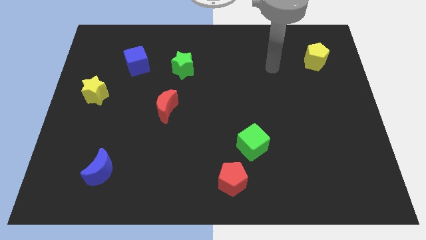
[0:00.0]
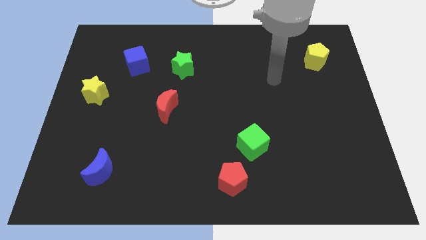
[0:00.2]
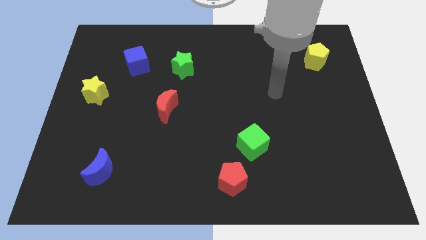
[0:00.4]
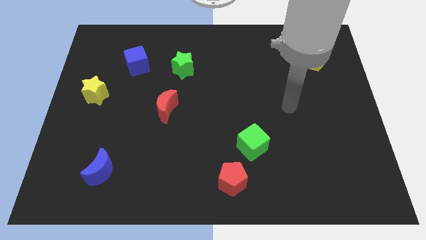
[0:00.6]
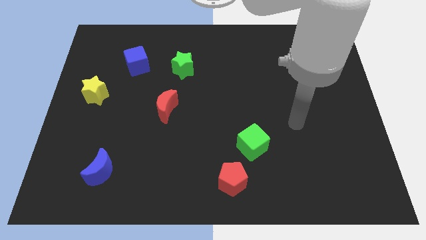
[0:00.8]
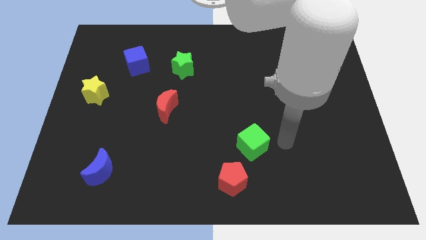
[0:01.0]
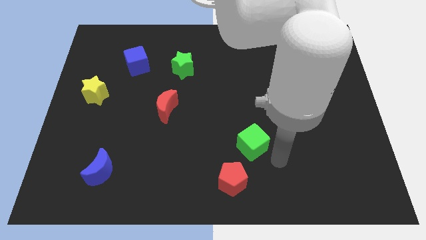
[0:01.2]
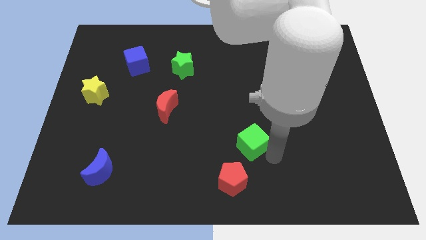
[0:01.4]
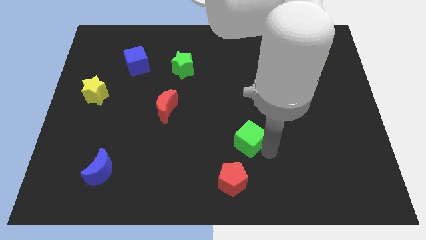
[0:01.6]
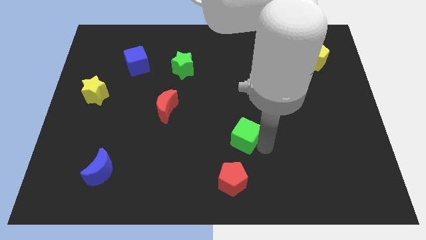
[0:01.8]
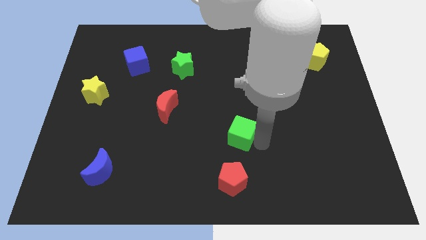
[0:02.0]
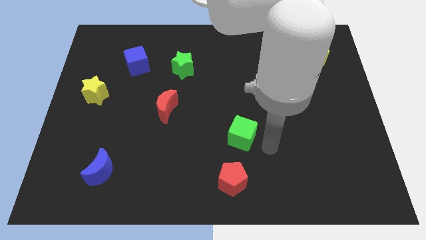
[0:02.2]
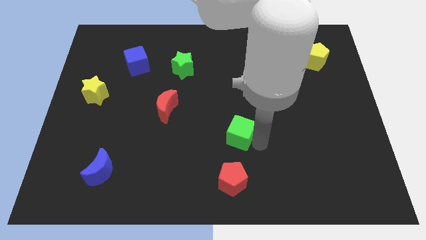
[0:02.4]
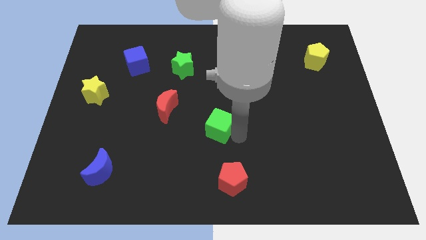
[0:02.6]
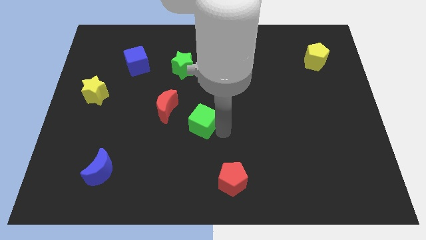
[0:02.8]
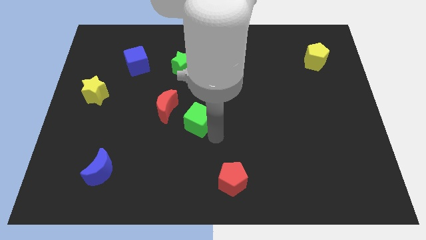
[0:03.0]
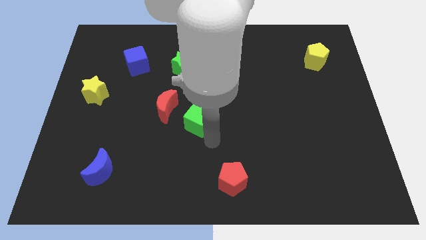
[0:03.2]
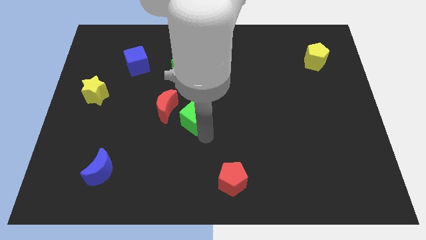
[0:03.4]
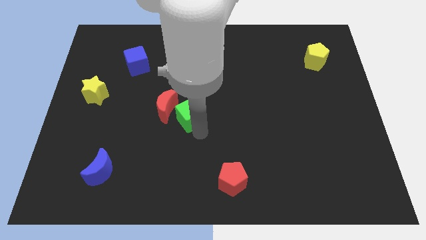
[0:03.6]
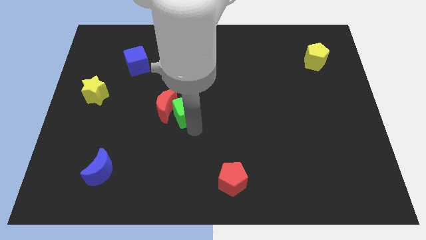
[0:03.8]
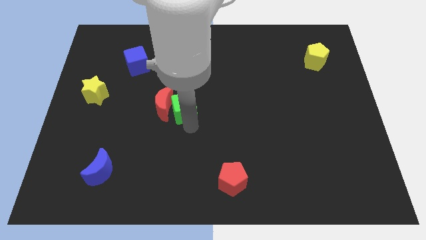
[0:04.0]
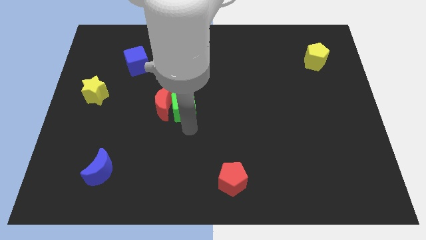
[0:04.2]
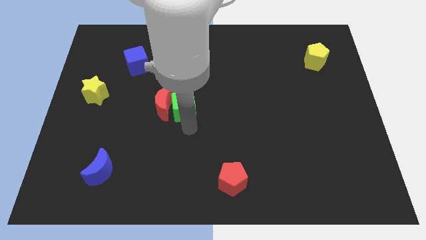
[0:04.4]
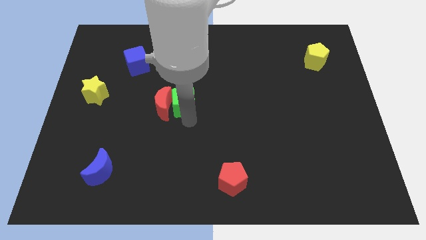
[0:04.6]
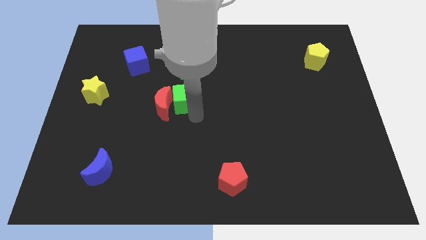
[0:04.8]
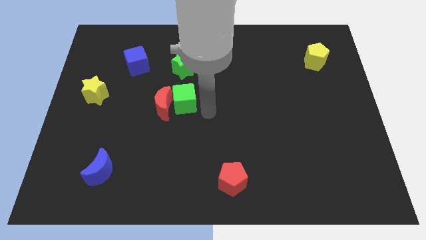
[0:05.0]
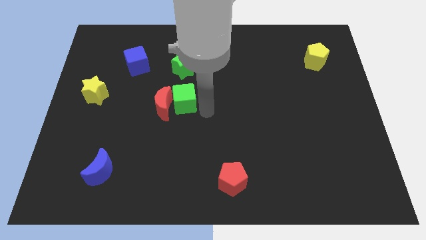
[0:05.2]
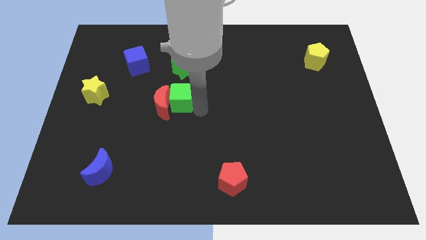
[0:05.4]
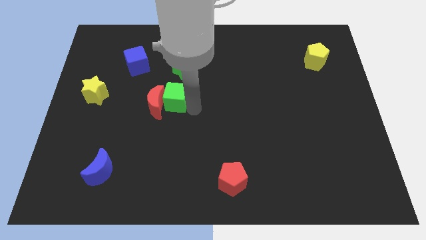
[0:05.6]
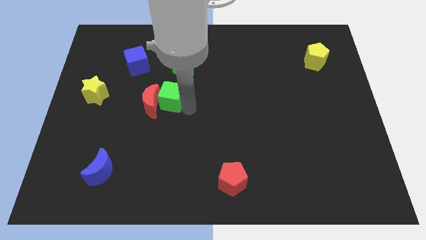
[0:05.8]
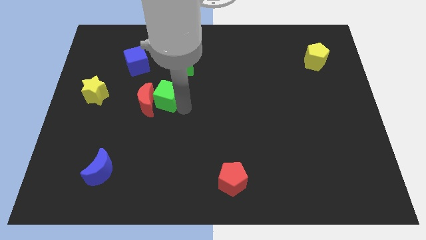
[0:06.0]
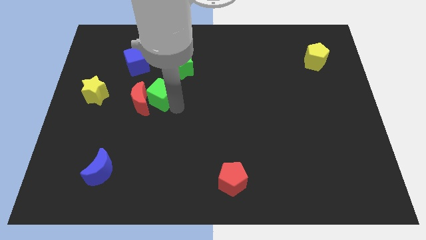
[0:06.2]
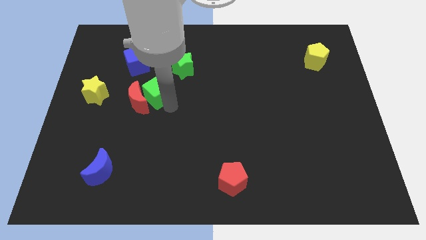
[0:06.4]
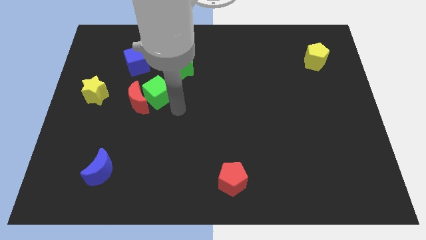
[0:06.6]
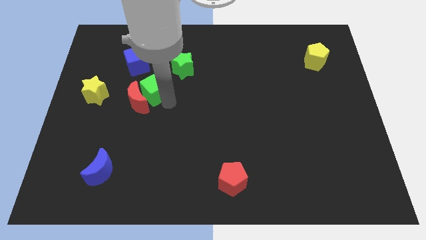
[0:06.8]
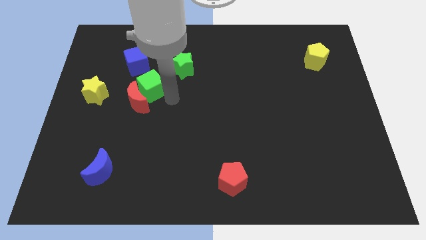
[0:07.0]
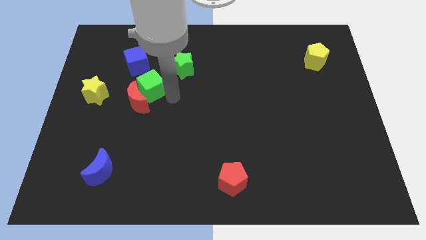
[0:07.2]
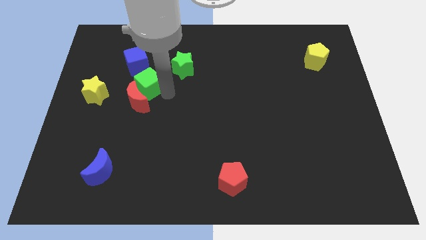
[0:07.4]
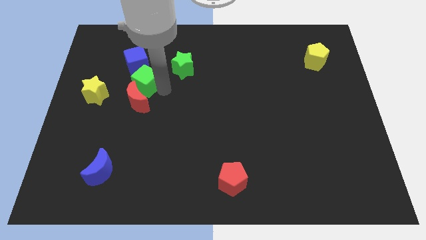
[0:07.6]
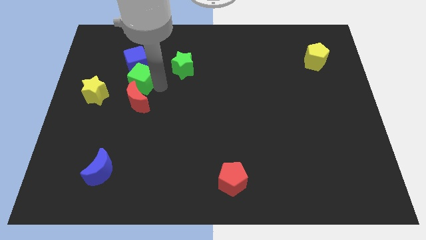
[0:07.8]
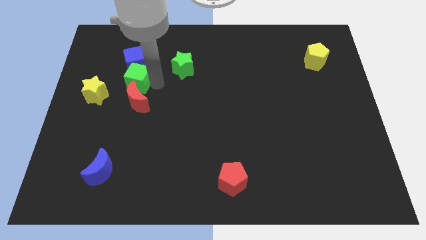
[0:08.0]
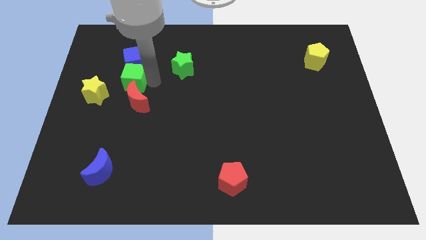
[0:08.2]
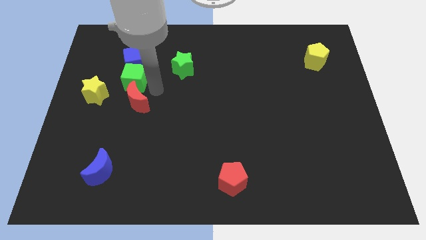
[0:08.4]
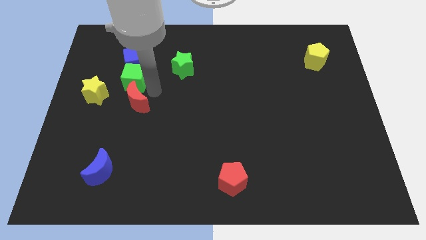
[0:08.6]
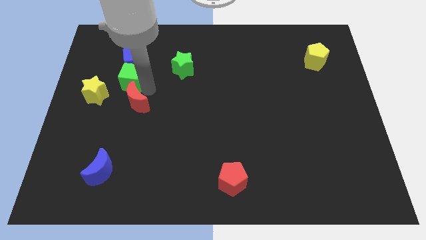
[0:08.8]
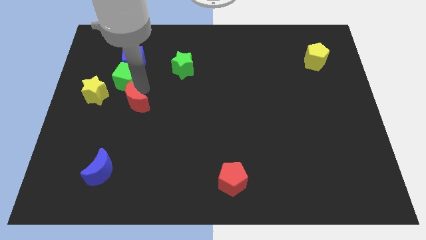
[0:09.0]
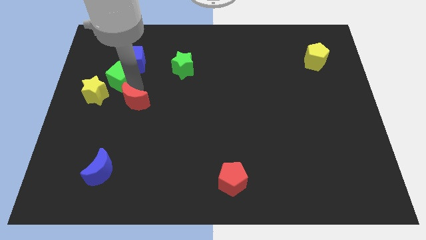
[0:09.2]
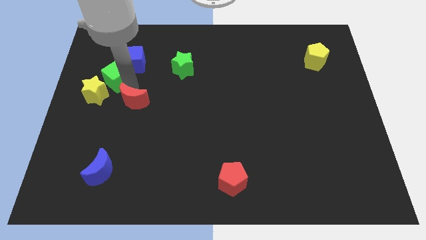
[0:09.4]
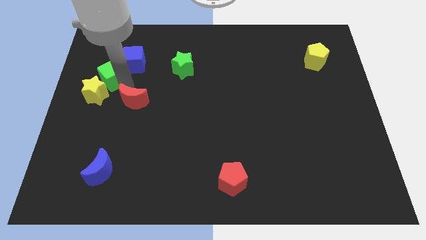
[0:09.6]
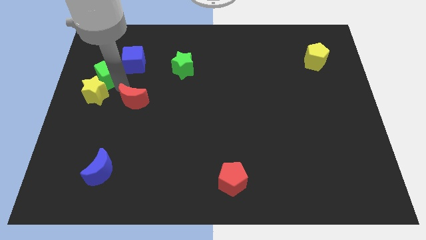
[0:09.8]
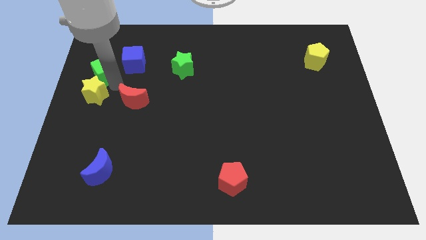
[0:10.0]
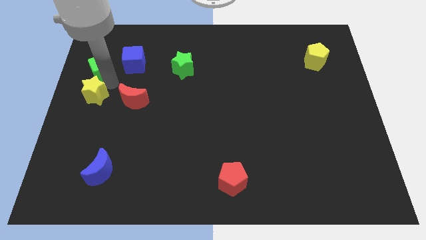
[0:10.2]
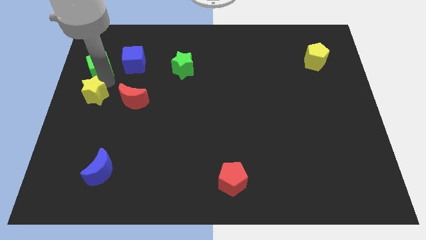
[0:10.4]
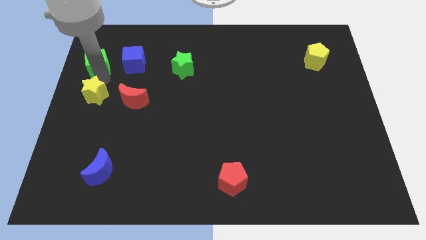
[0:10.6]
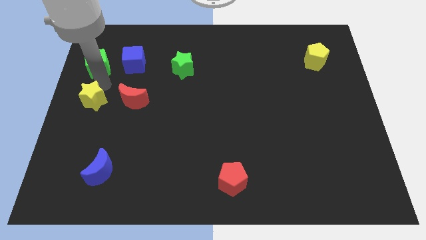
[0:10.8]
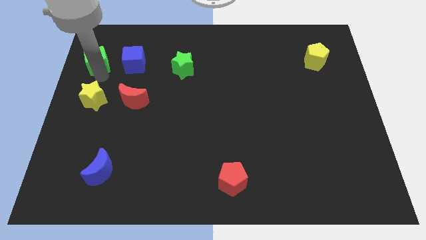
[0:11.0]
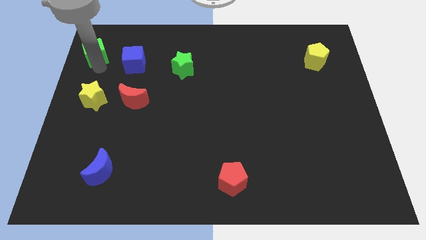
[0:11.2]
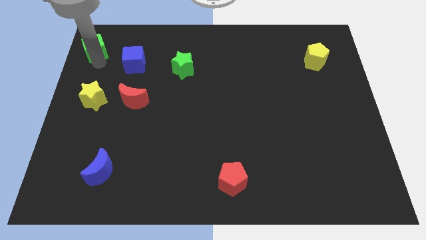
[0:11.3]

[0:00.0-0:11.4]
put the green cube to the upper left corner
